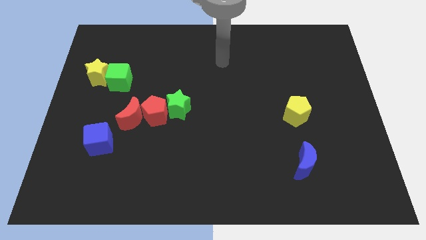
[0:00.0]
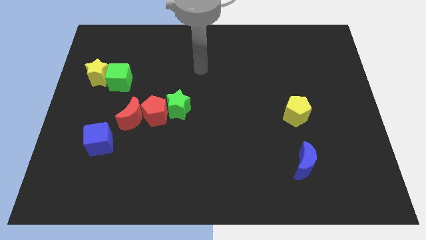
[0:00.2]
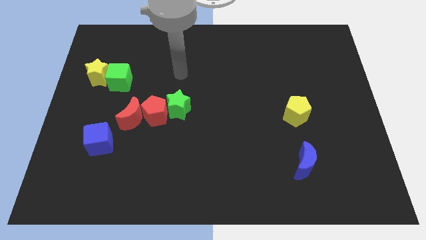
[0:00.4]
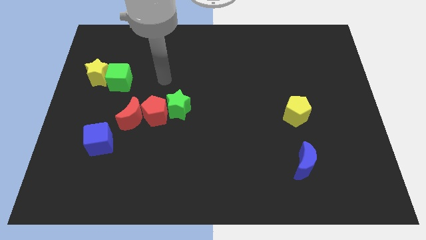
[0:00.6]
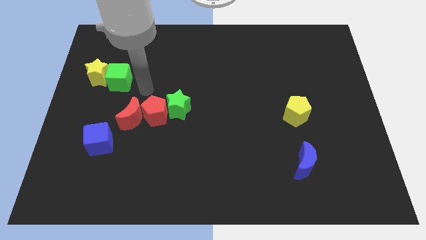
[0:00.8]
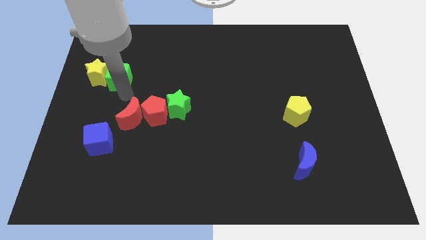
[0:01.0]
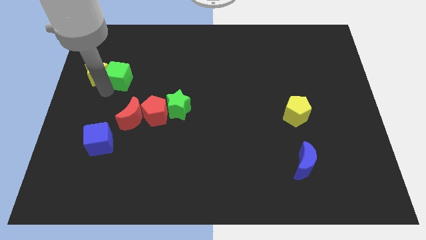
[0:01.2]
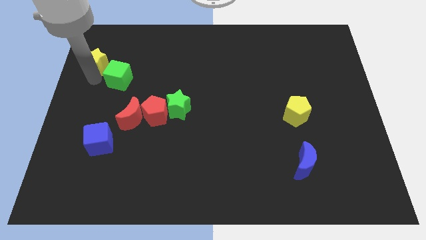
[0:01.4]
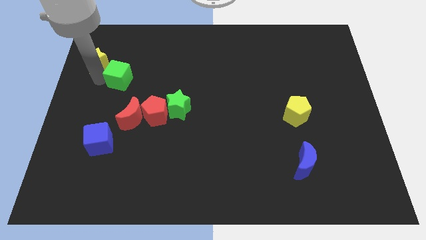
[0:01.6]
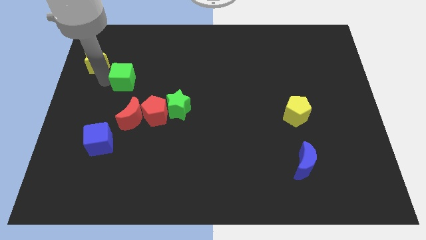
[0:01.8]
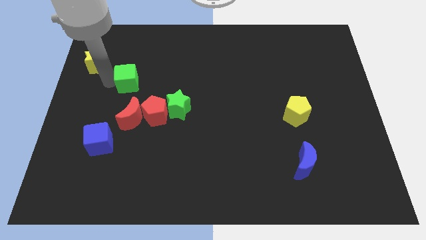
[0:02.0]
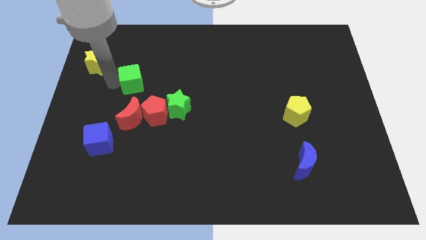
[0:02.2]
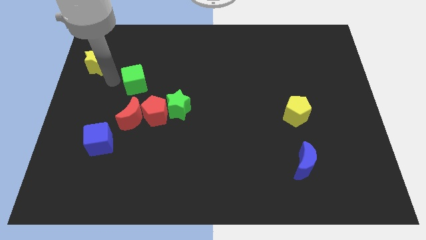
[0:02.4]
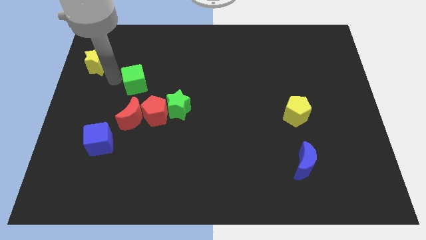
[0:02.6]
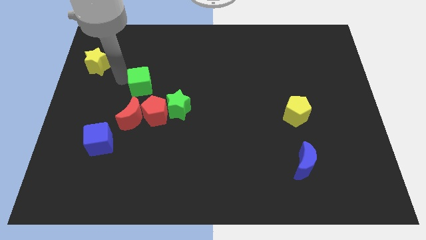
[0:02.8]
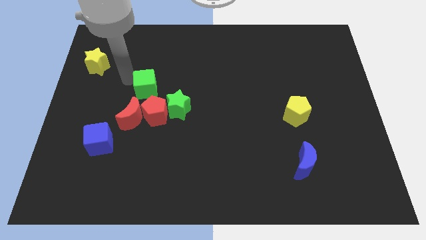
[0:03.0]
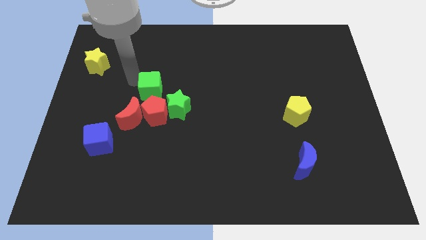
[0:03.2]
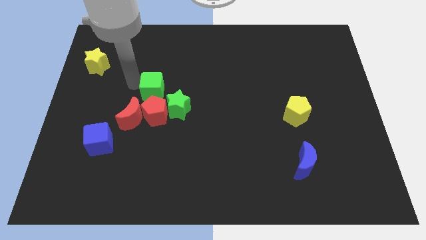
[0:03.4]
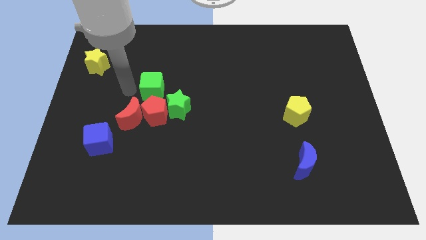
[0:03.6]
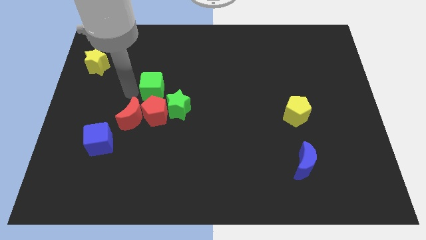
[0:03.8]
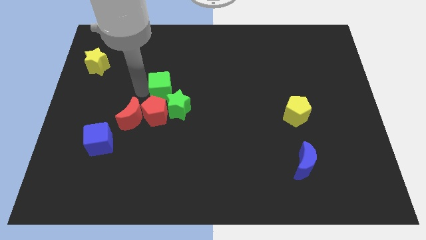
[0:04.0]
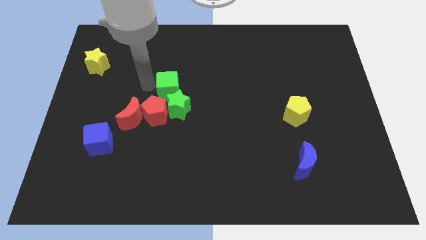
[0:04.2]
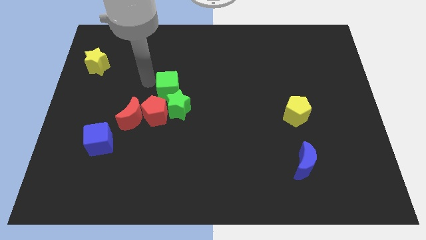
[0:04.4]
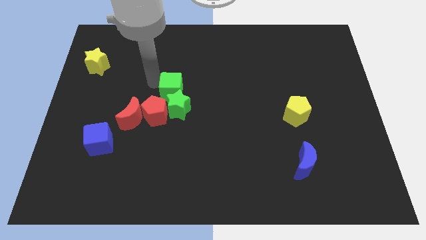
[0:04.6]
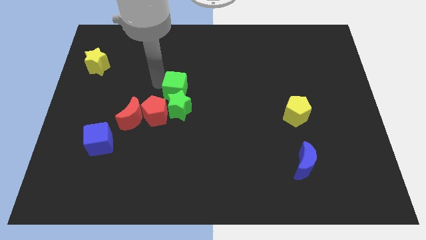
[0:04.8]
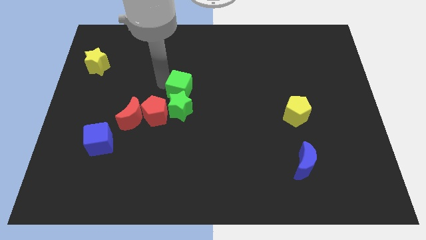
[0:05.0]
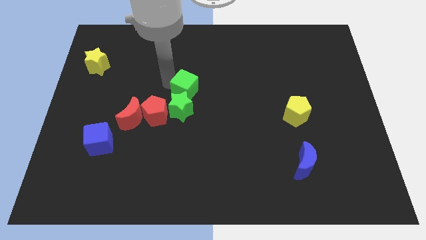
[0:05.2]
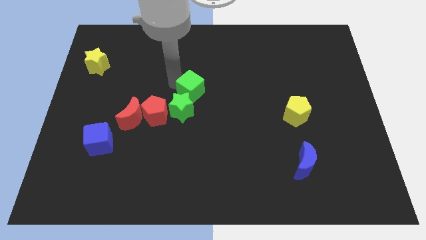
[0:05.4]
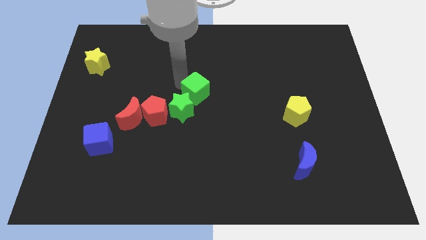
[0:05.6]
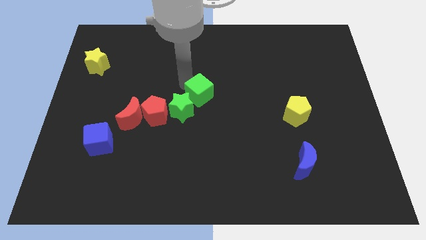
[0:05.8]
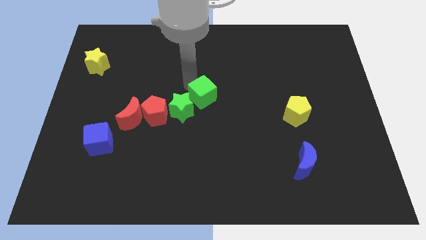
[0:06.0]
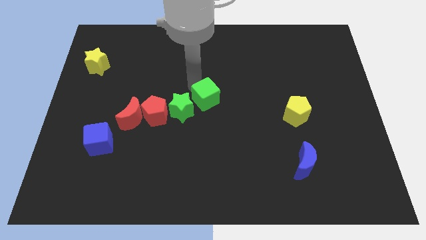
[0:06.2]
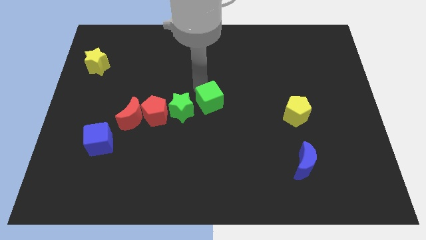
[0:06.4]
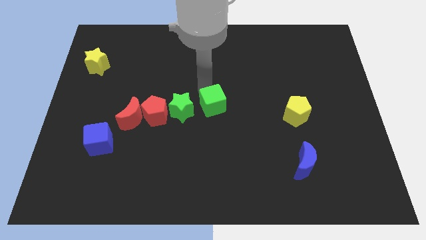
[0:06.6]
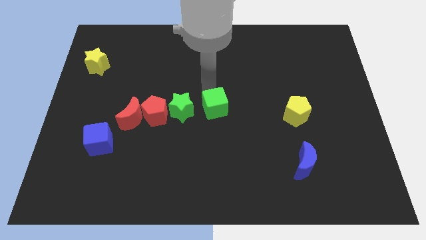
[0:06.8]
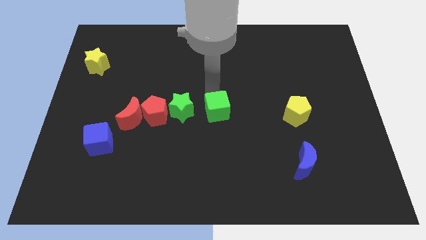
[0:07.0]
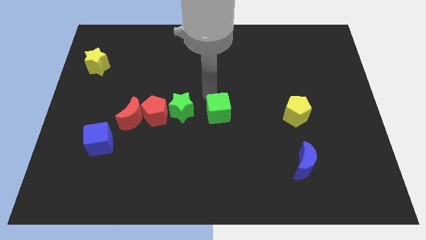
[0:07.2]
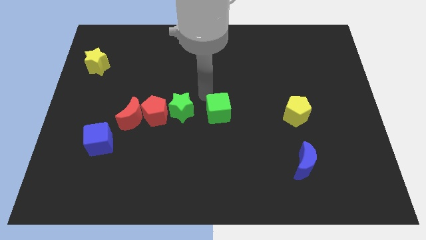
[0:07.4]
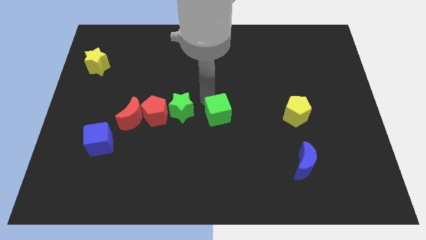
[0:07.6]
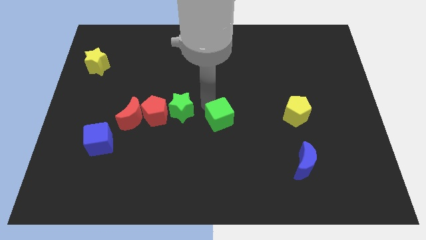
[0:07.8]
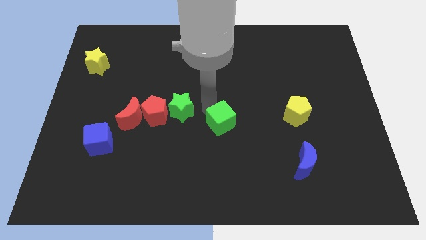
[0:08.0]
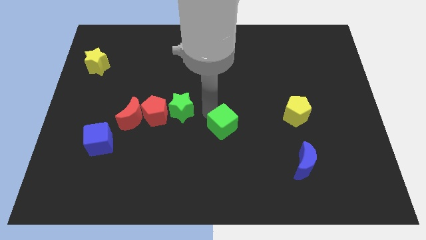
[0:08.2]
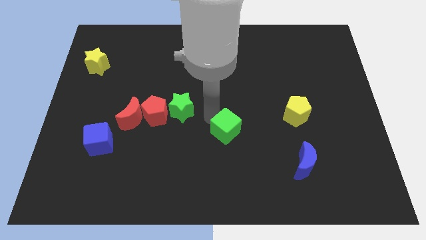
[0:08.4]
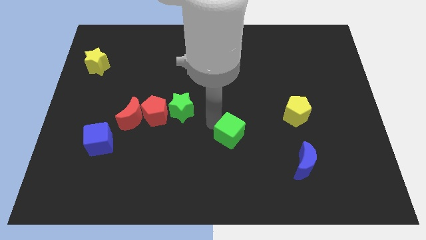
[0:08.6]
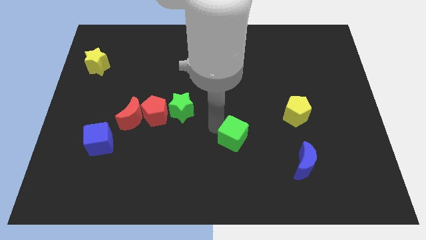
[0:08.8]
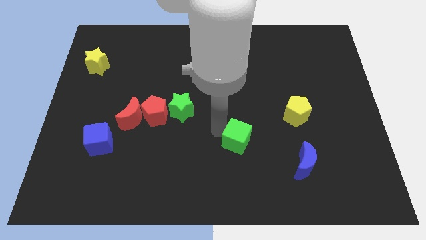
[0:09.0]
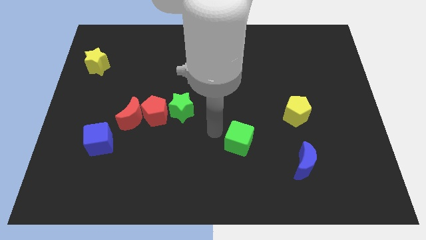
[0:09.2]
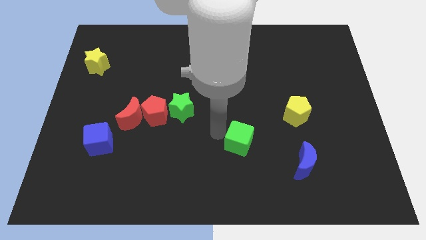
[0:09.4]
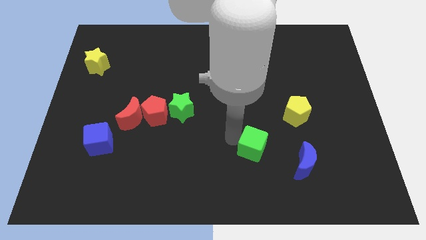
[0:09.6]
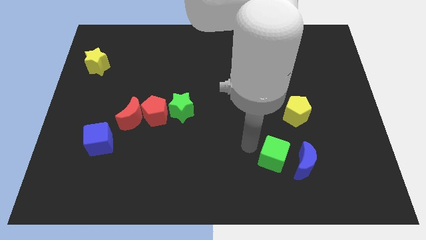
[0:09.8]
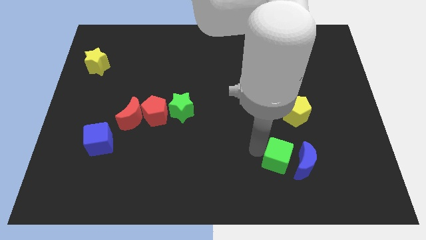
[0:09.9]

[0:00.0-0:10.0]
slide the green cube to the blue moon

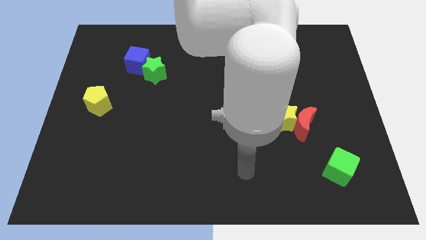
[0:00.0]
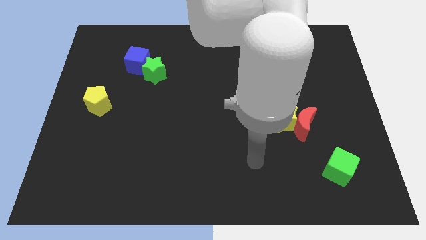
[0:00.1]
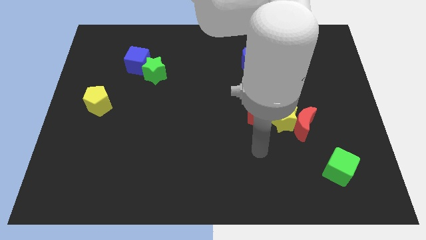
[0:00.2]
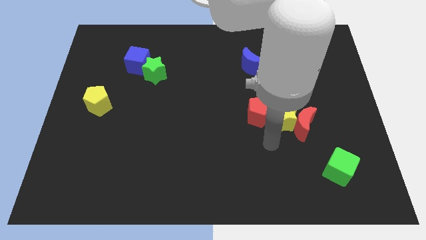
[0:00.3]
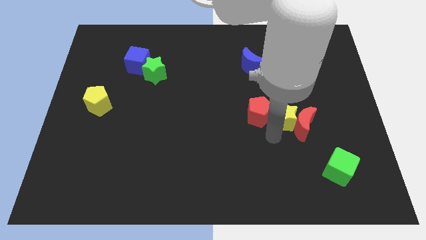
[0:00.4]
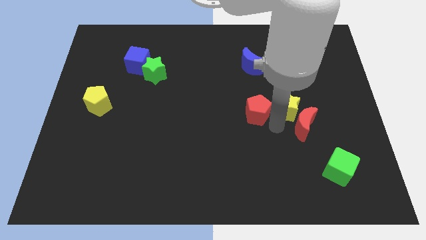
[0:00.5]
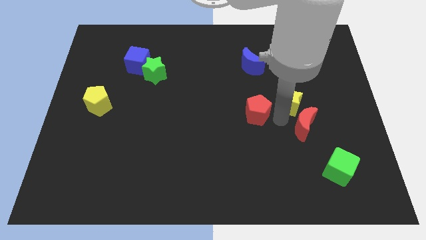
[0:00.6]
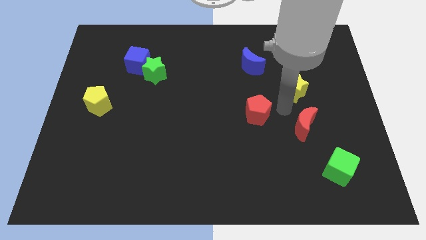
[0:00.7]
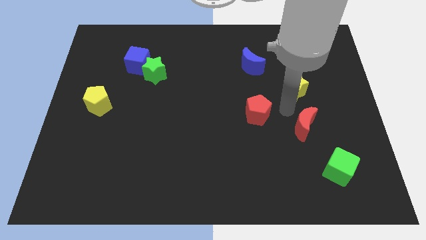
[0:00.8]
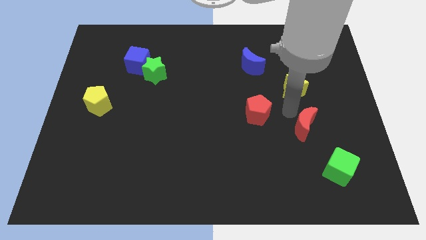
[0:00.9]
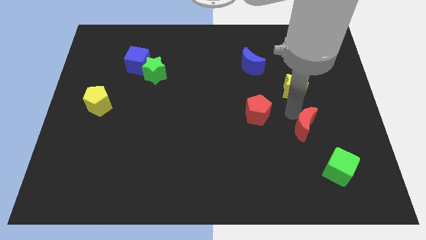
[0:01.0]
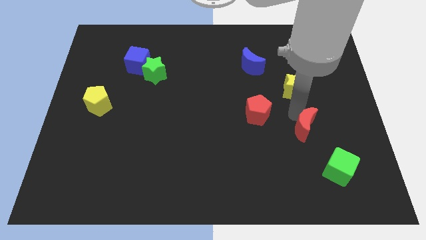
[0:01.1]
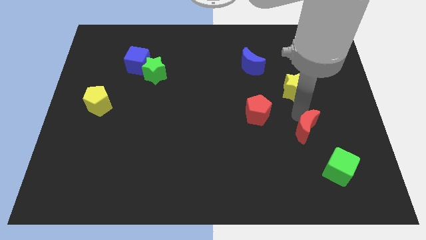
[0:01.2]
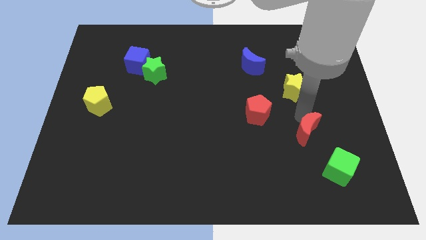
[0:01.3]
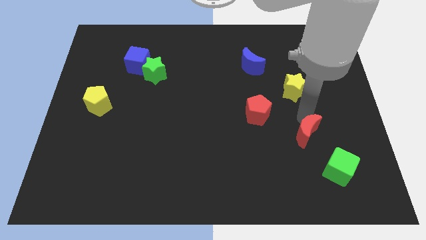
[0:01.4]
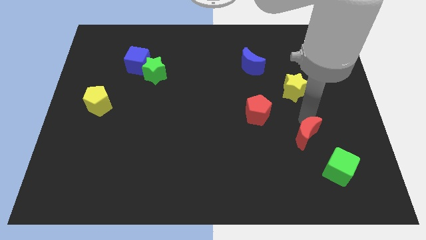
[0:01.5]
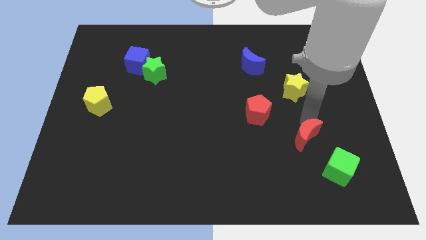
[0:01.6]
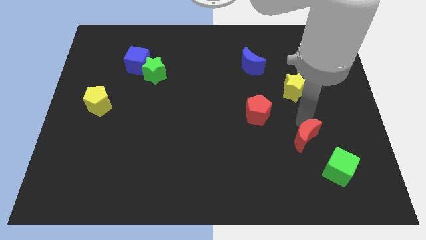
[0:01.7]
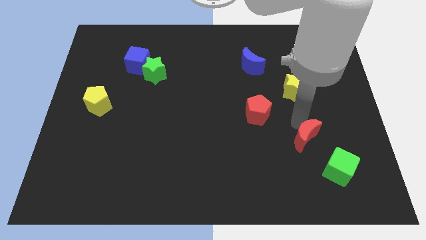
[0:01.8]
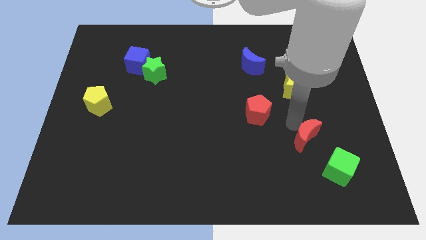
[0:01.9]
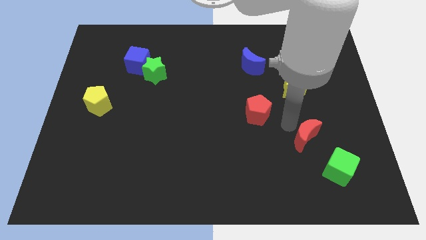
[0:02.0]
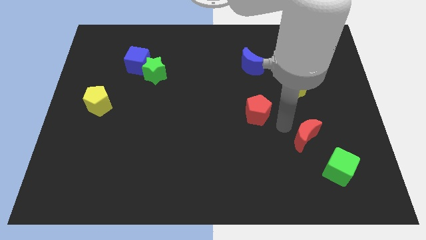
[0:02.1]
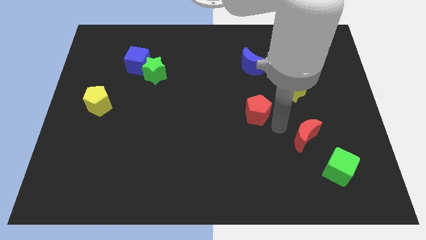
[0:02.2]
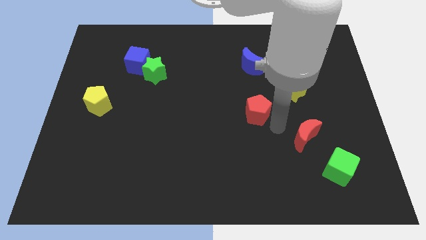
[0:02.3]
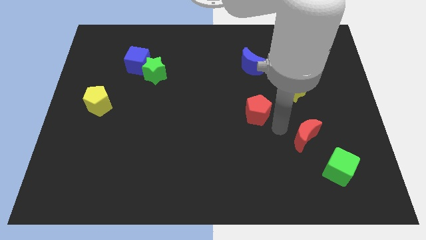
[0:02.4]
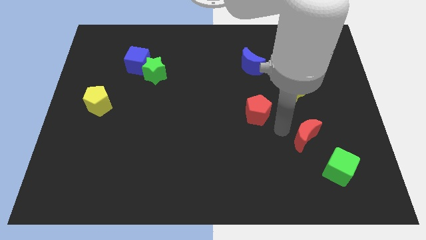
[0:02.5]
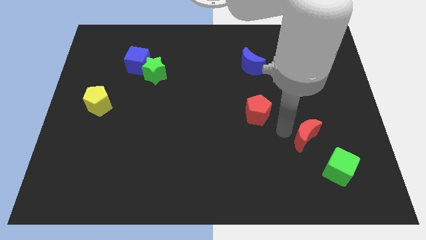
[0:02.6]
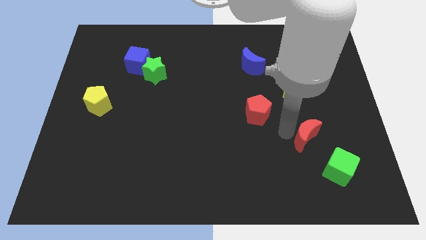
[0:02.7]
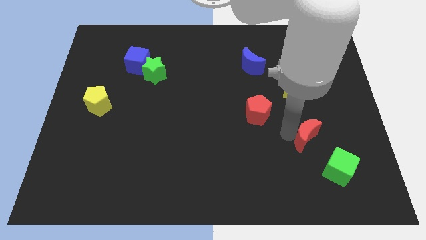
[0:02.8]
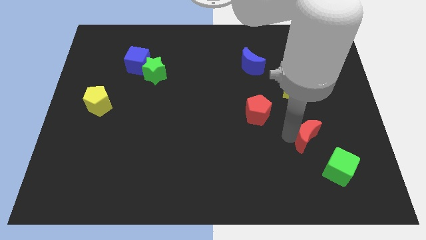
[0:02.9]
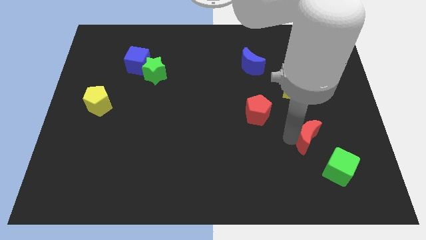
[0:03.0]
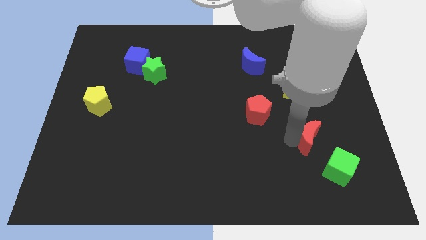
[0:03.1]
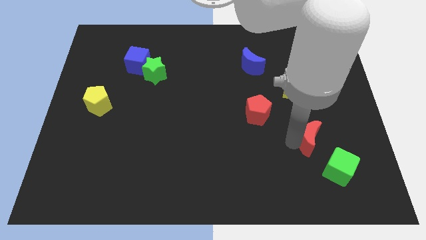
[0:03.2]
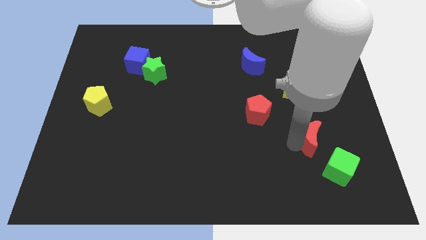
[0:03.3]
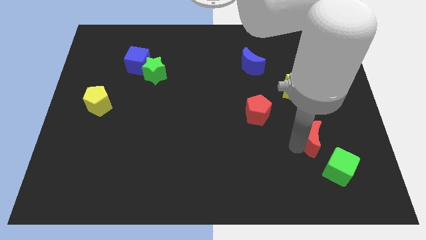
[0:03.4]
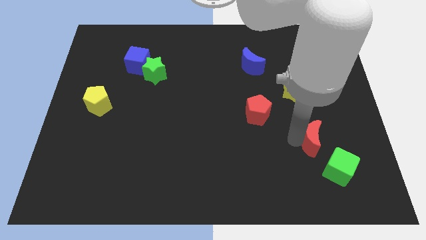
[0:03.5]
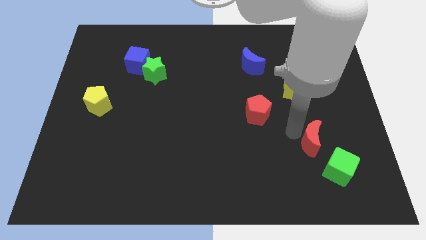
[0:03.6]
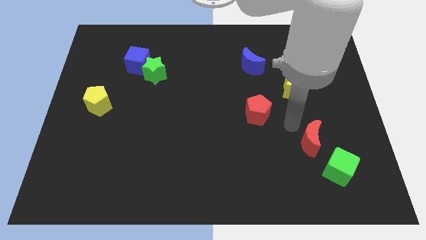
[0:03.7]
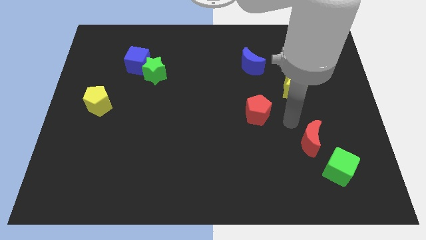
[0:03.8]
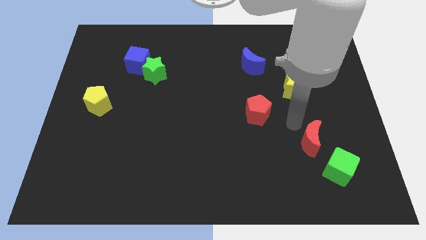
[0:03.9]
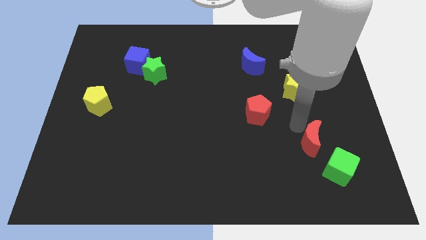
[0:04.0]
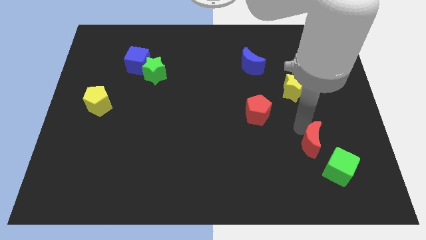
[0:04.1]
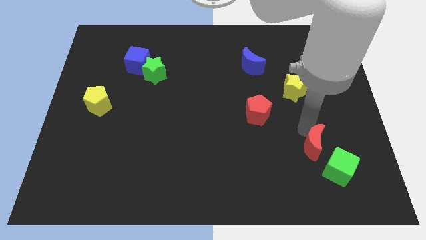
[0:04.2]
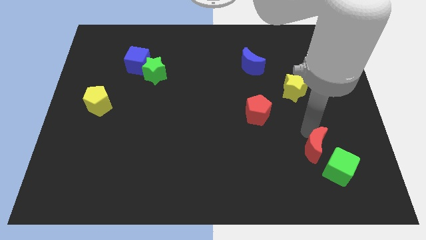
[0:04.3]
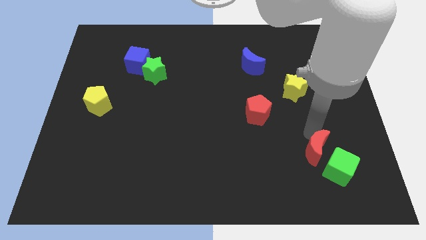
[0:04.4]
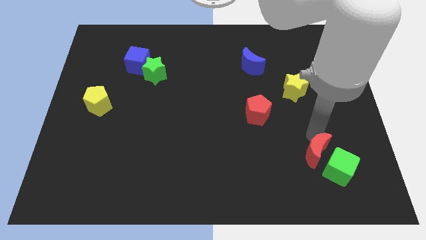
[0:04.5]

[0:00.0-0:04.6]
push the red moon to the green cube
